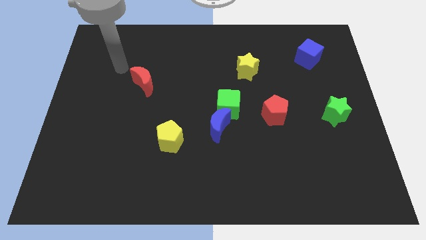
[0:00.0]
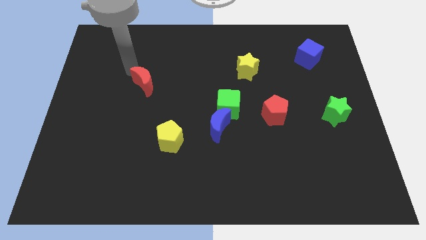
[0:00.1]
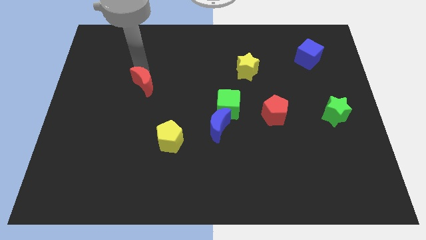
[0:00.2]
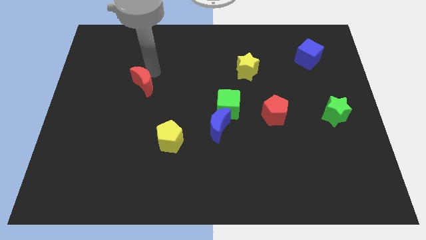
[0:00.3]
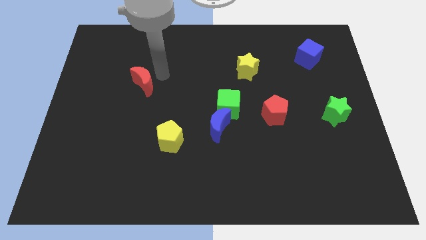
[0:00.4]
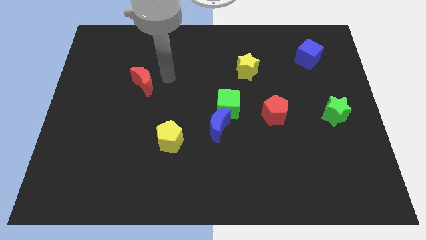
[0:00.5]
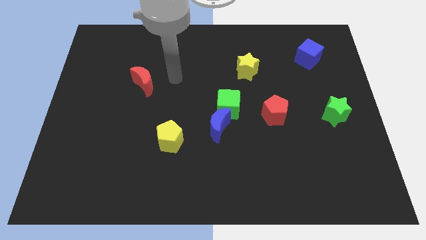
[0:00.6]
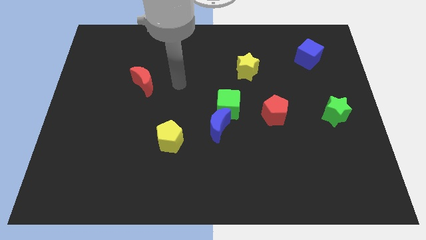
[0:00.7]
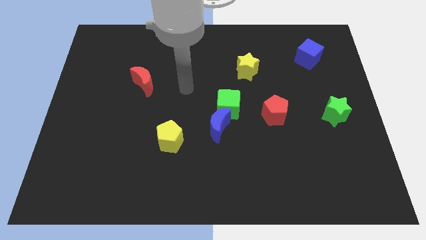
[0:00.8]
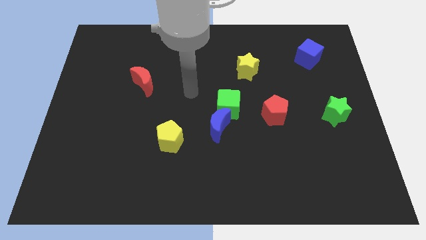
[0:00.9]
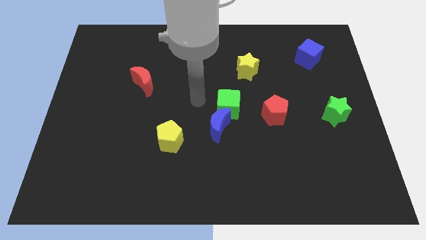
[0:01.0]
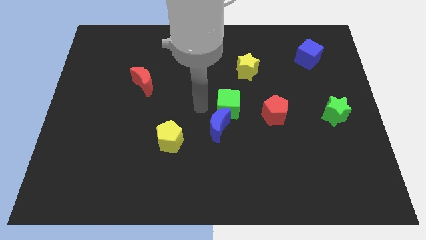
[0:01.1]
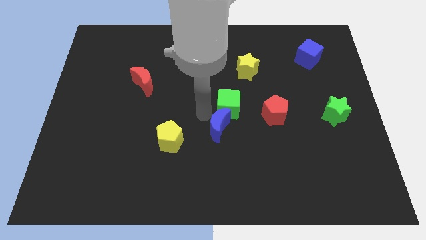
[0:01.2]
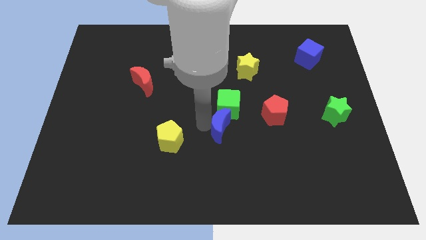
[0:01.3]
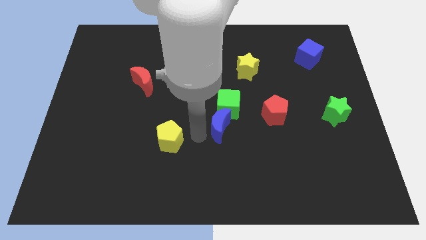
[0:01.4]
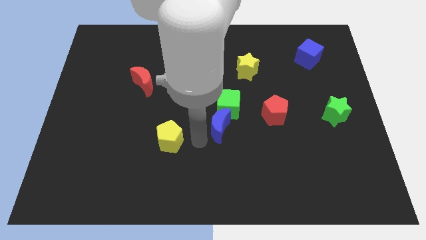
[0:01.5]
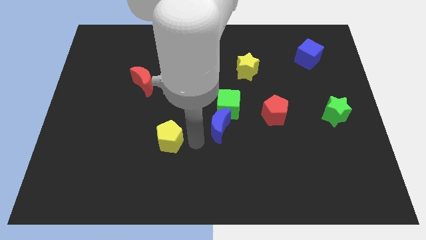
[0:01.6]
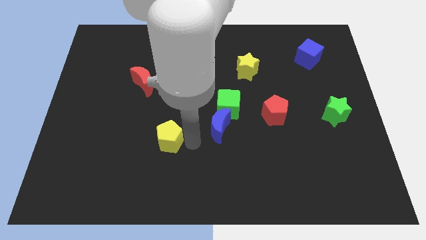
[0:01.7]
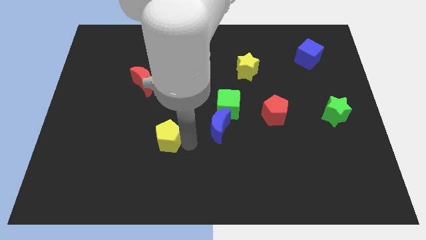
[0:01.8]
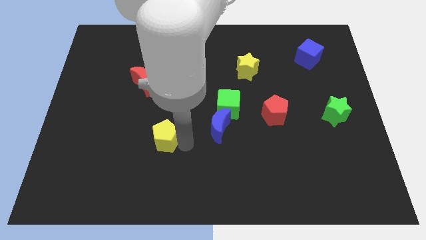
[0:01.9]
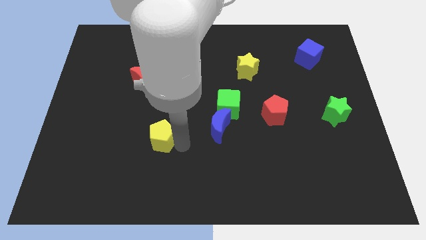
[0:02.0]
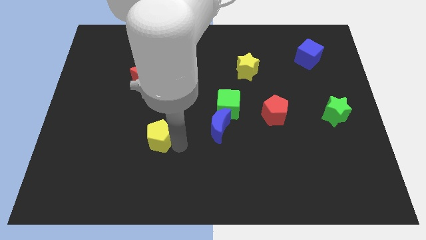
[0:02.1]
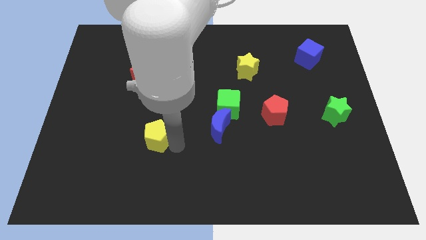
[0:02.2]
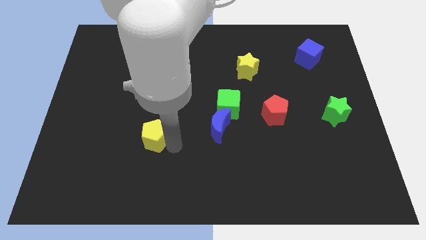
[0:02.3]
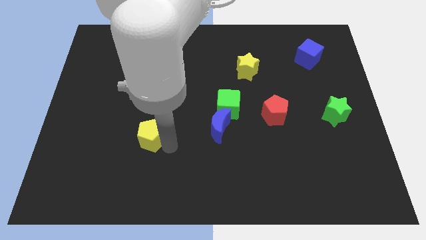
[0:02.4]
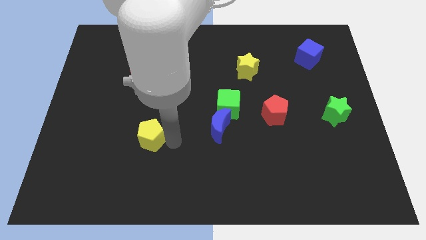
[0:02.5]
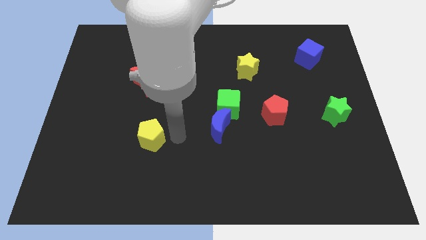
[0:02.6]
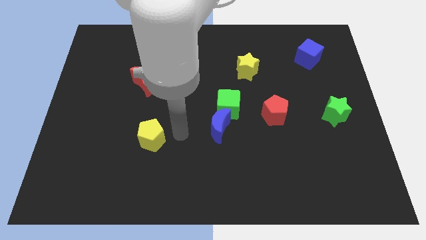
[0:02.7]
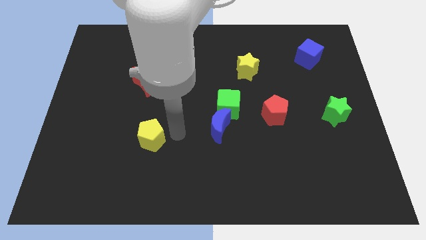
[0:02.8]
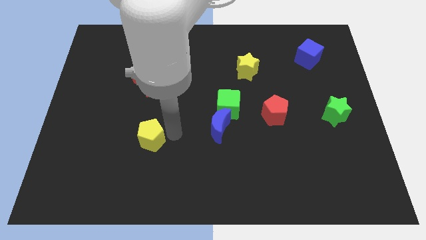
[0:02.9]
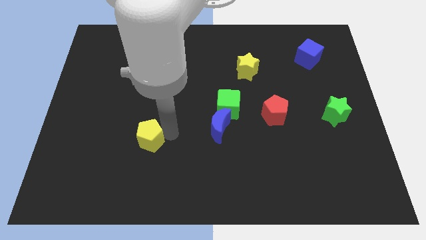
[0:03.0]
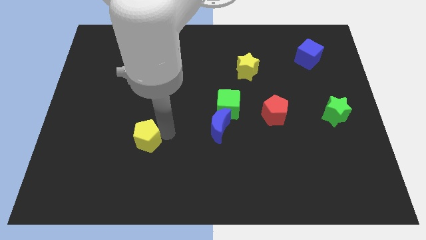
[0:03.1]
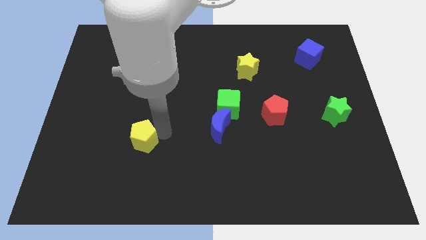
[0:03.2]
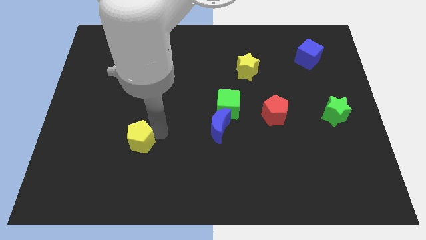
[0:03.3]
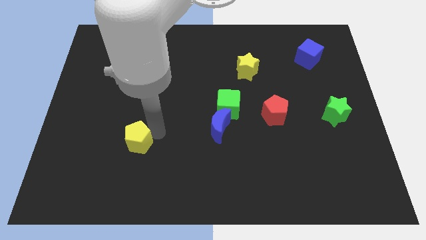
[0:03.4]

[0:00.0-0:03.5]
move the yellow pentagon to the left somewhat

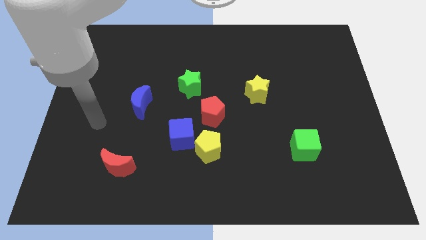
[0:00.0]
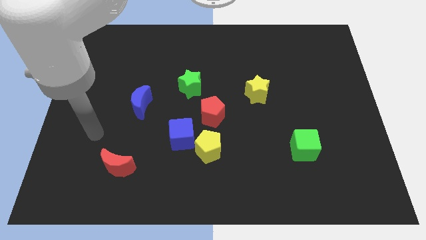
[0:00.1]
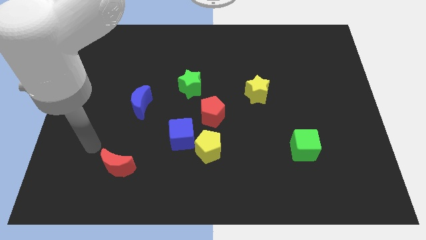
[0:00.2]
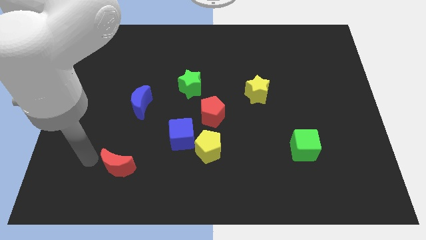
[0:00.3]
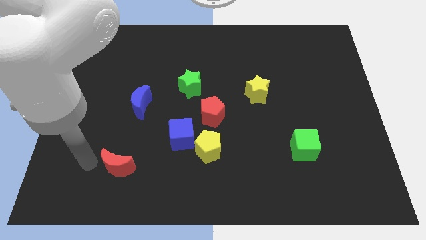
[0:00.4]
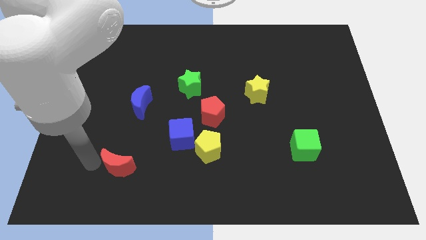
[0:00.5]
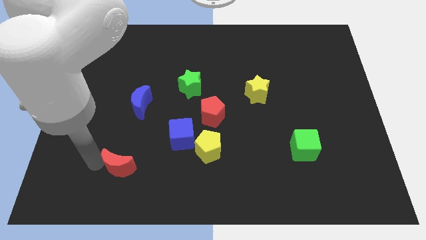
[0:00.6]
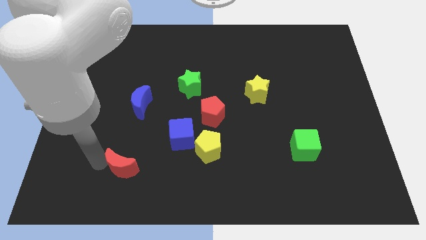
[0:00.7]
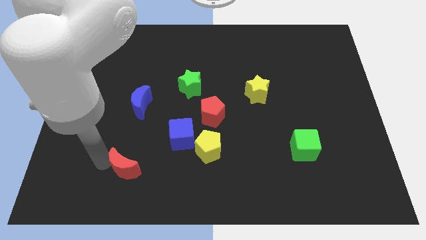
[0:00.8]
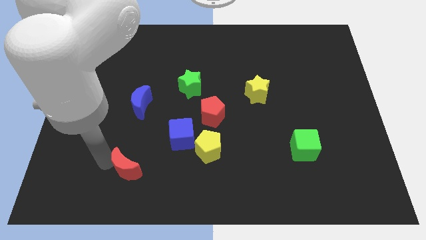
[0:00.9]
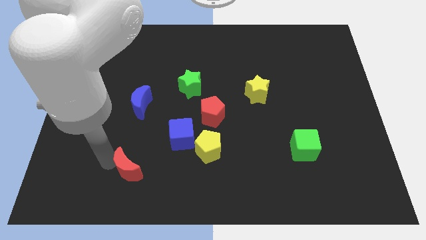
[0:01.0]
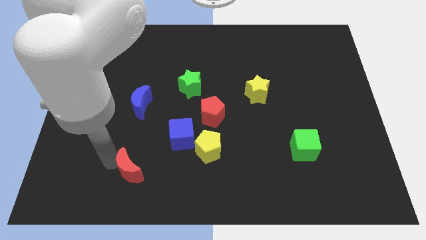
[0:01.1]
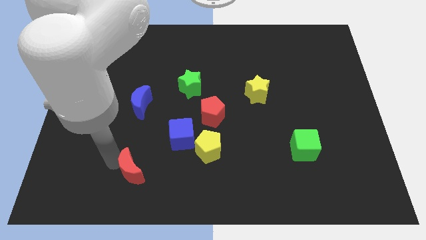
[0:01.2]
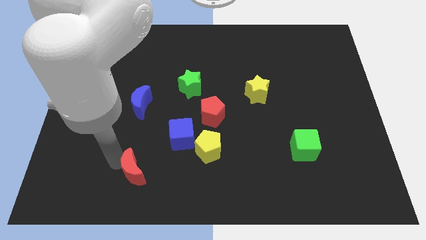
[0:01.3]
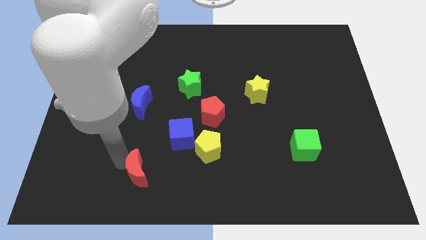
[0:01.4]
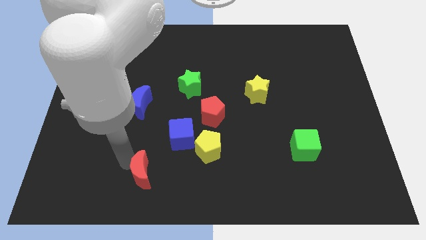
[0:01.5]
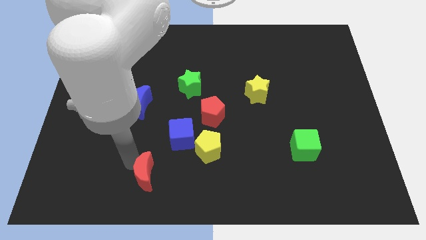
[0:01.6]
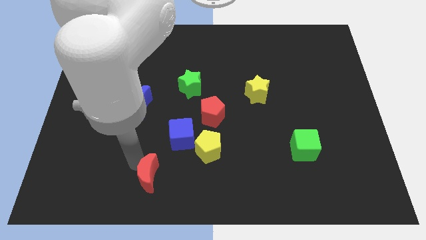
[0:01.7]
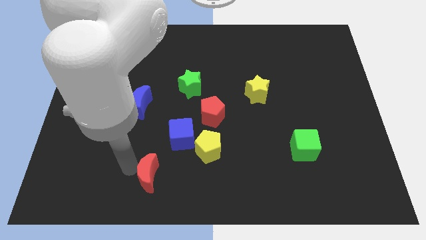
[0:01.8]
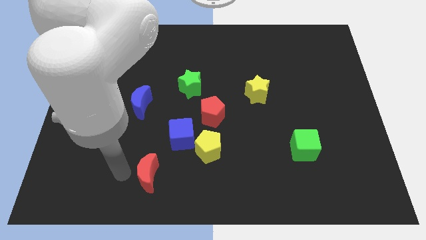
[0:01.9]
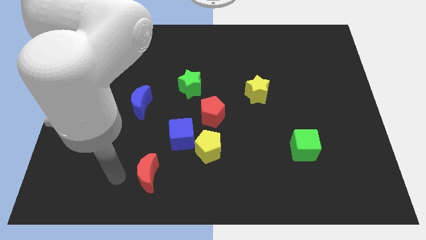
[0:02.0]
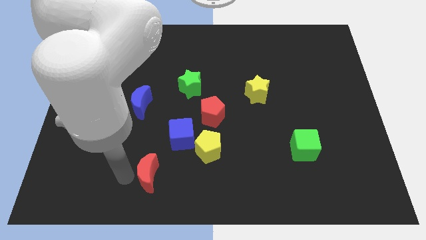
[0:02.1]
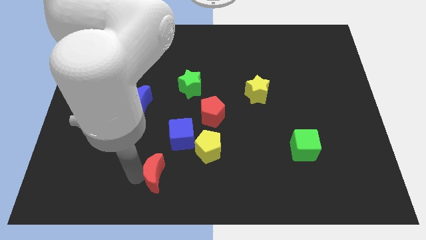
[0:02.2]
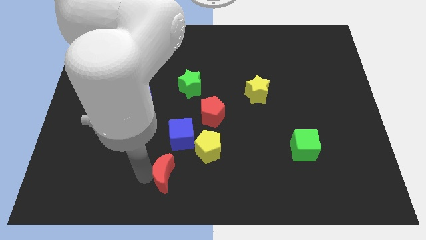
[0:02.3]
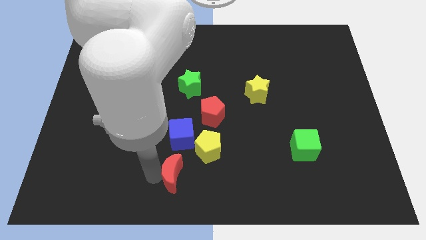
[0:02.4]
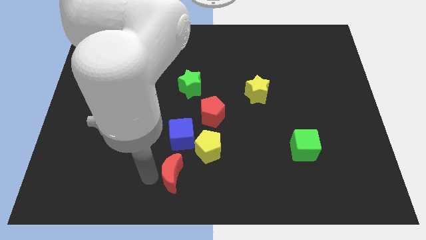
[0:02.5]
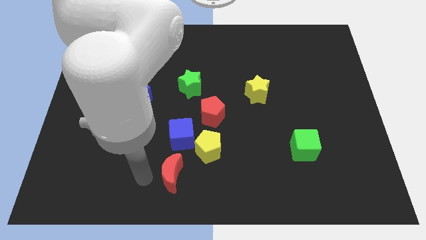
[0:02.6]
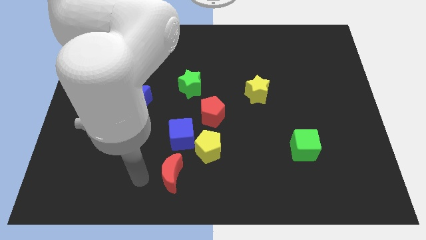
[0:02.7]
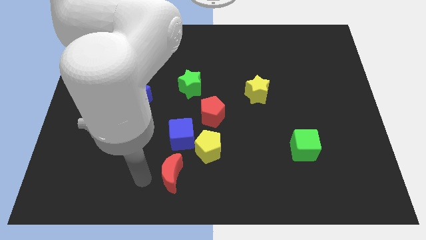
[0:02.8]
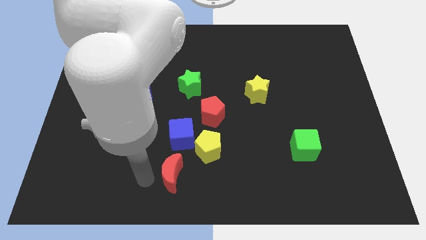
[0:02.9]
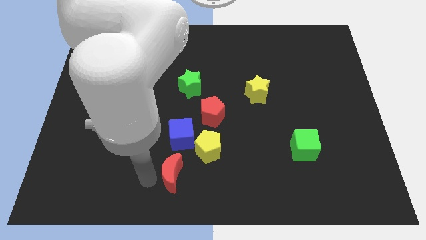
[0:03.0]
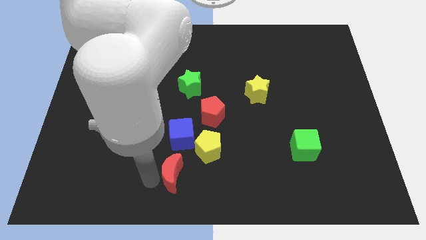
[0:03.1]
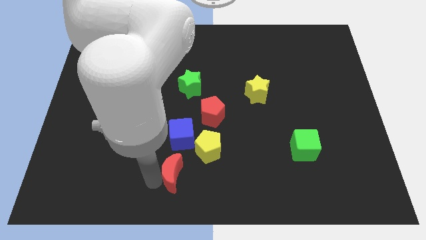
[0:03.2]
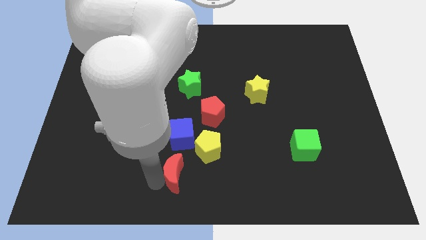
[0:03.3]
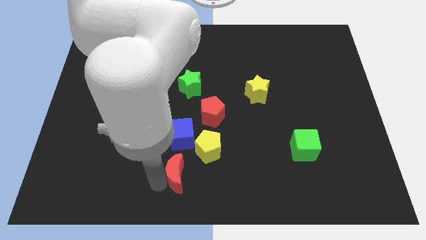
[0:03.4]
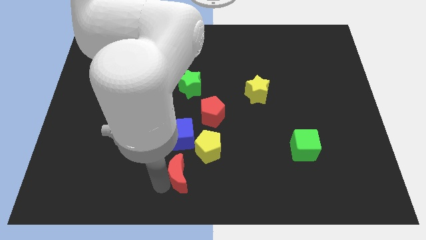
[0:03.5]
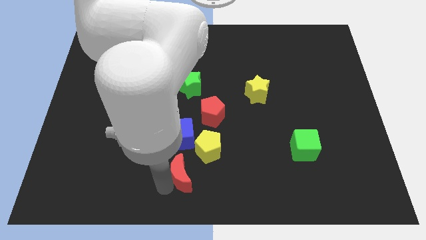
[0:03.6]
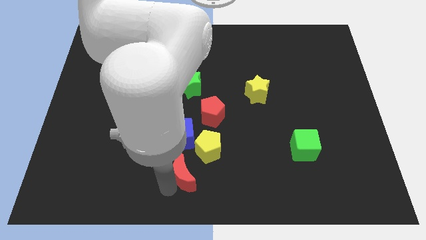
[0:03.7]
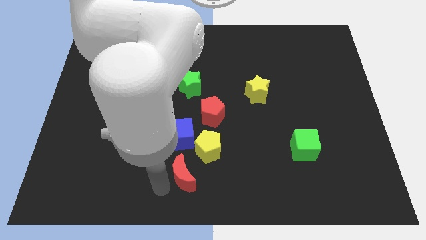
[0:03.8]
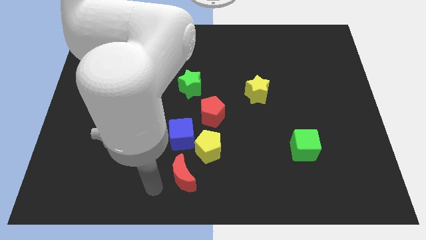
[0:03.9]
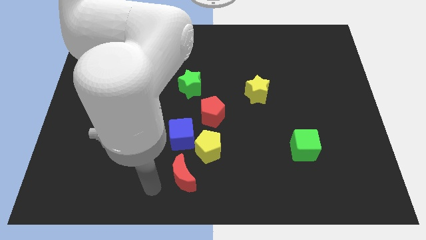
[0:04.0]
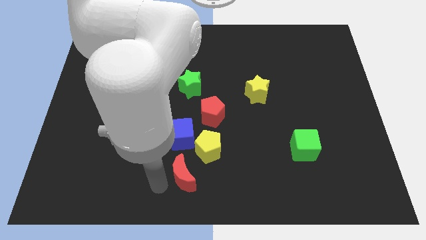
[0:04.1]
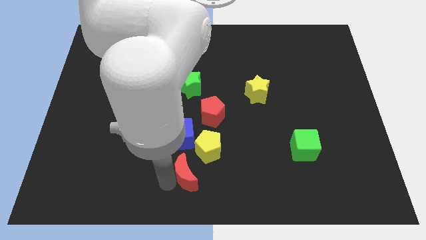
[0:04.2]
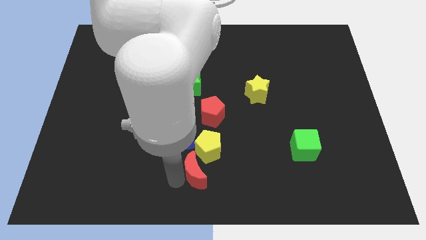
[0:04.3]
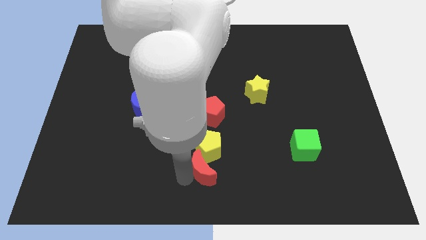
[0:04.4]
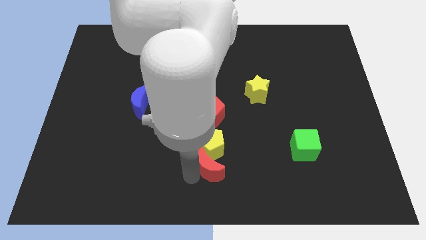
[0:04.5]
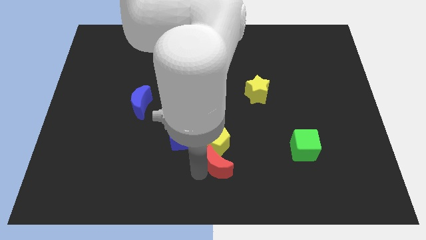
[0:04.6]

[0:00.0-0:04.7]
move the red moon right
